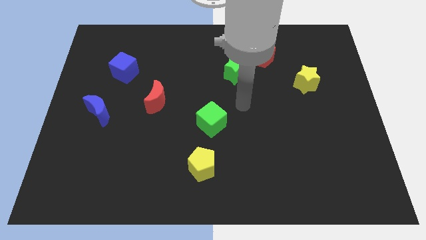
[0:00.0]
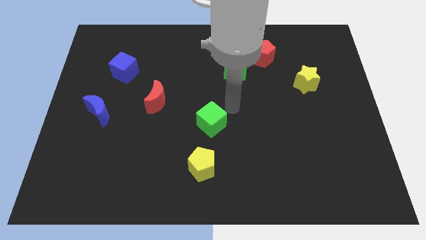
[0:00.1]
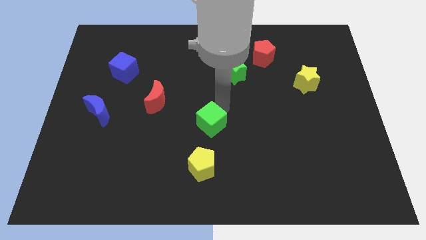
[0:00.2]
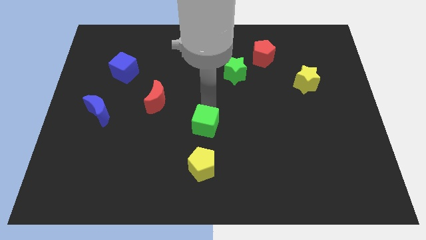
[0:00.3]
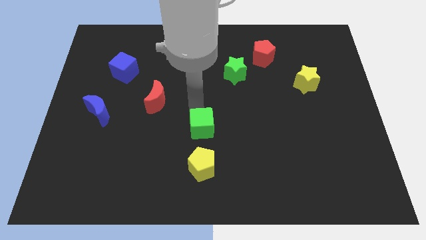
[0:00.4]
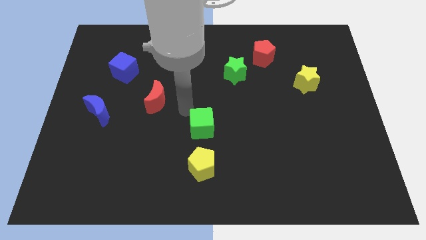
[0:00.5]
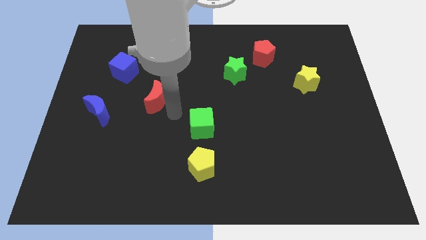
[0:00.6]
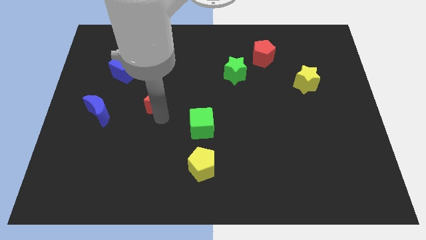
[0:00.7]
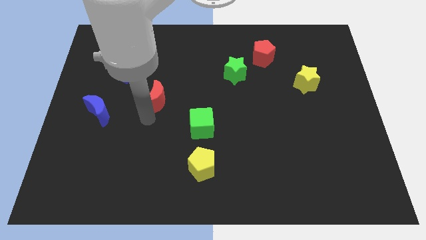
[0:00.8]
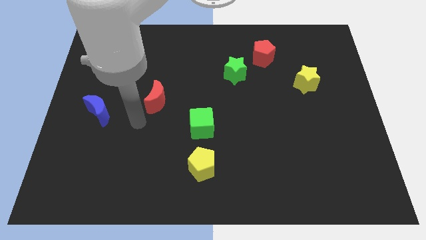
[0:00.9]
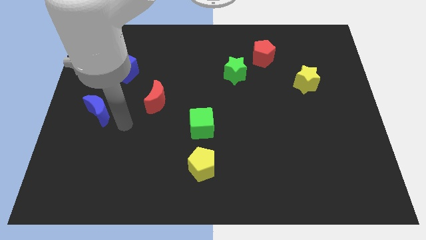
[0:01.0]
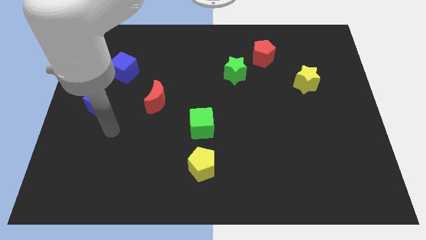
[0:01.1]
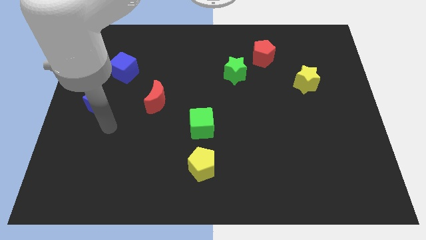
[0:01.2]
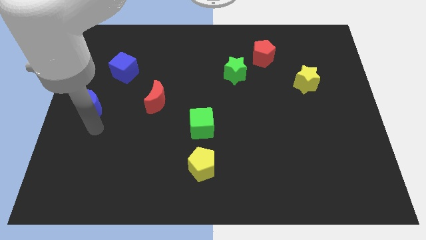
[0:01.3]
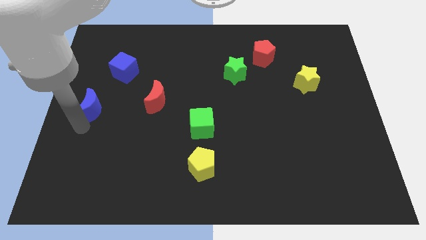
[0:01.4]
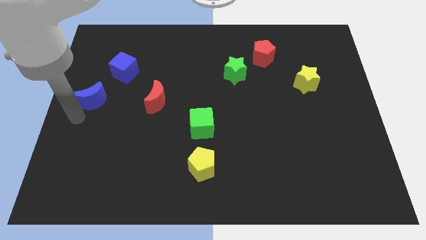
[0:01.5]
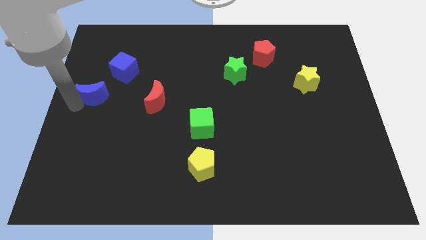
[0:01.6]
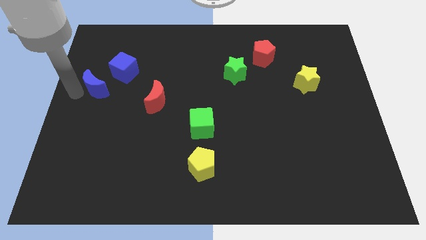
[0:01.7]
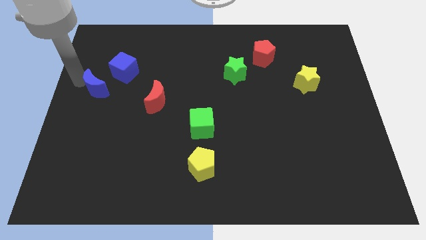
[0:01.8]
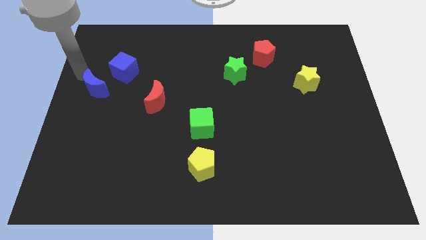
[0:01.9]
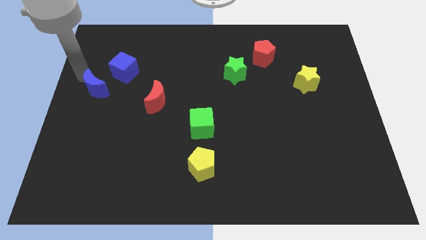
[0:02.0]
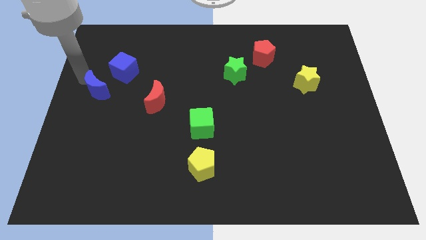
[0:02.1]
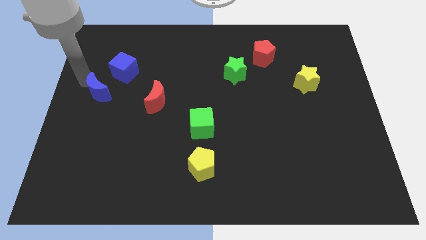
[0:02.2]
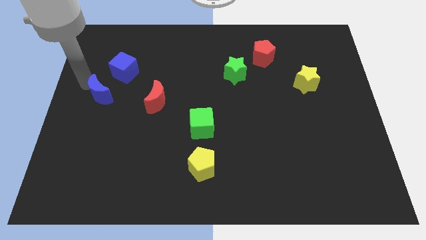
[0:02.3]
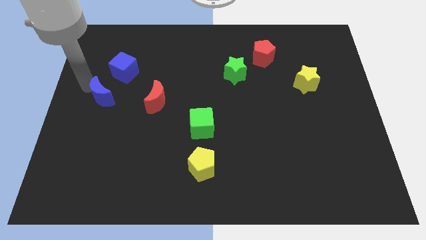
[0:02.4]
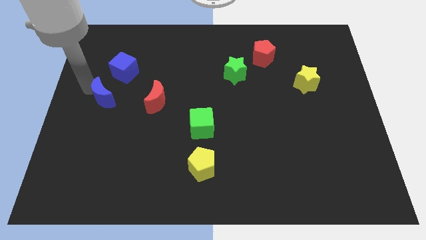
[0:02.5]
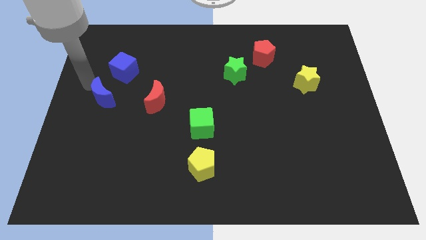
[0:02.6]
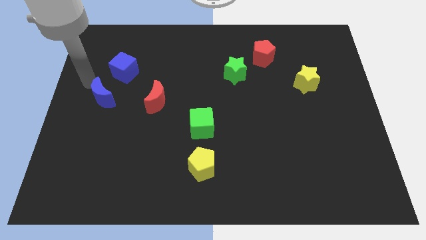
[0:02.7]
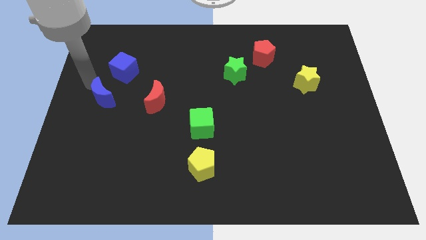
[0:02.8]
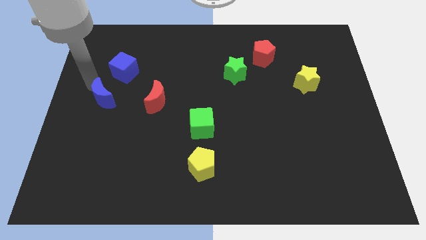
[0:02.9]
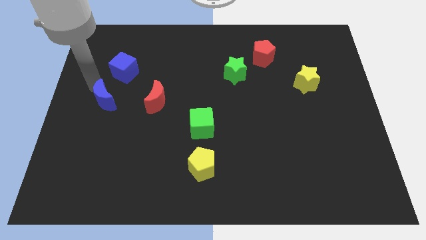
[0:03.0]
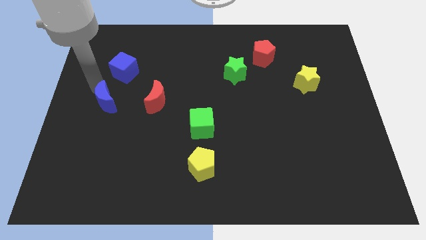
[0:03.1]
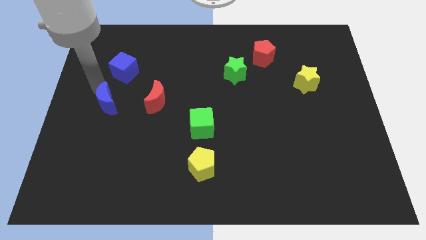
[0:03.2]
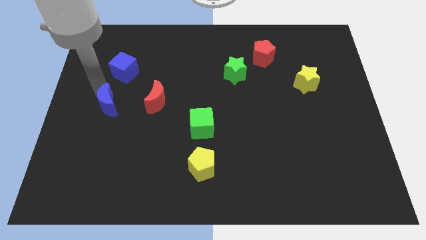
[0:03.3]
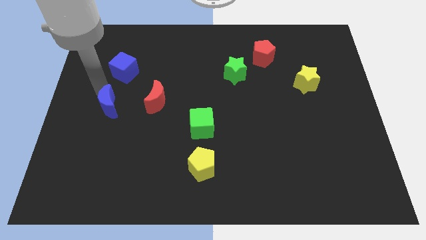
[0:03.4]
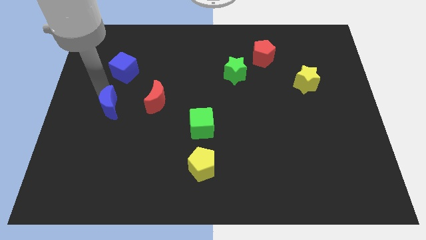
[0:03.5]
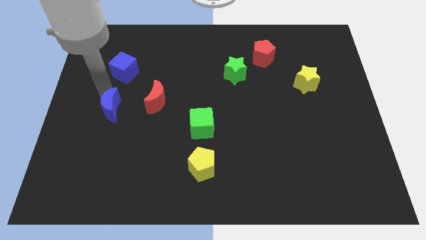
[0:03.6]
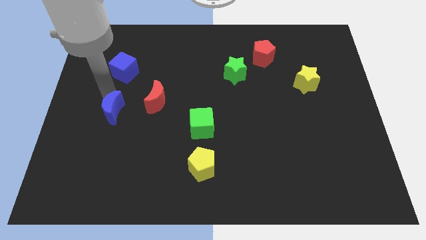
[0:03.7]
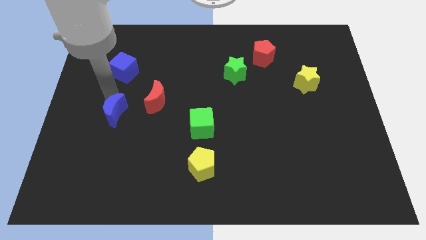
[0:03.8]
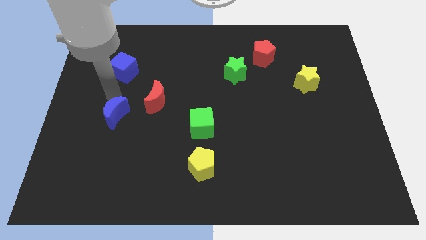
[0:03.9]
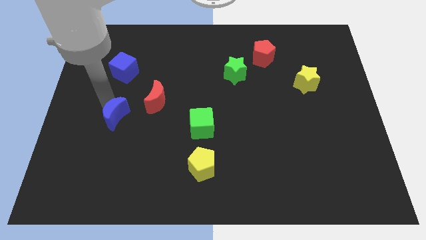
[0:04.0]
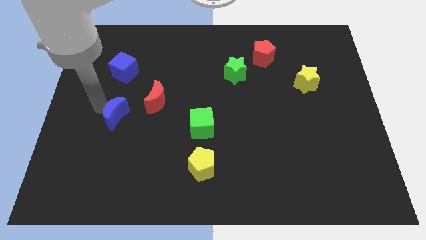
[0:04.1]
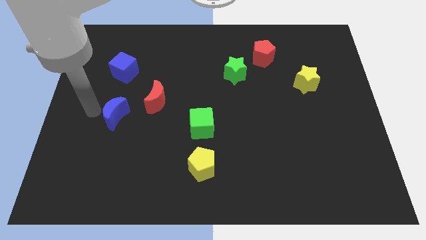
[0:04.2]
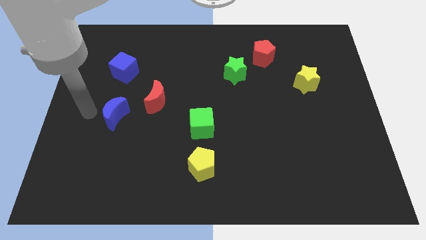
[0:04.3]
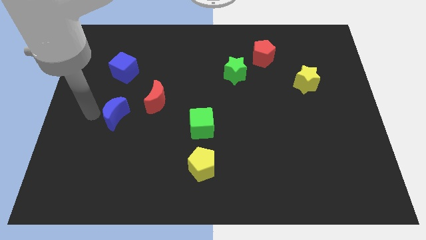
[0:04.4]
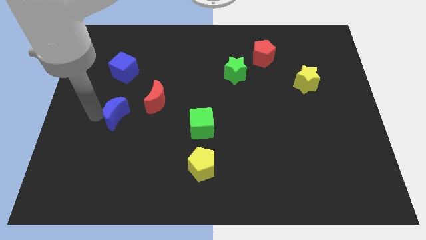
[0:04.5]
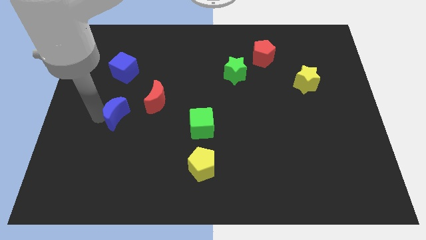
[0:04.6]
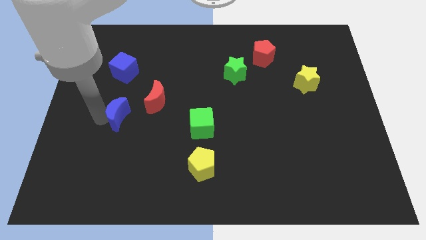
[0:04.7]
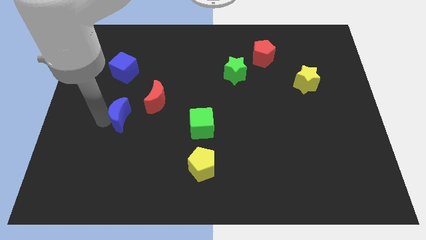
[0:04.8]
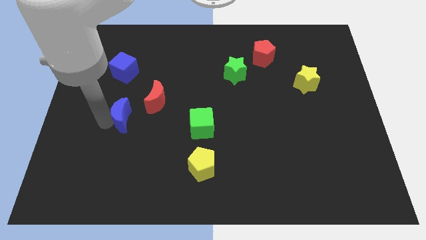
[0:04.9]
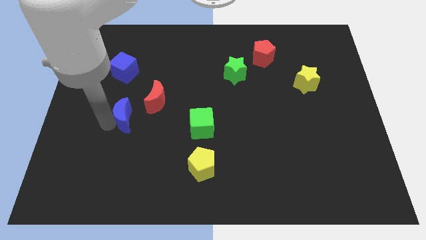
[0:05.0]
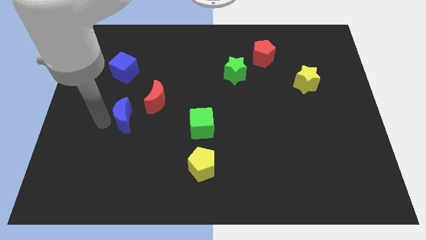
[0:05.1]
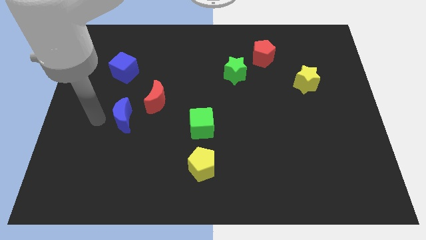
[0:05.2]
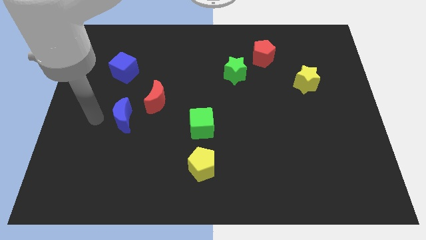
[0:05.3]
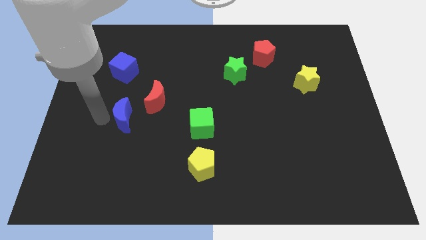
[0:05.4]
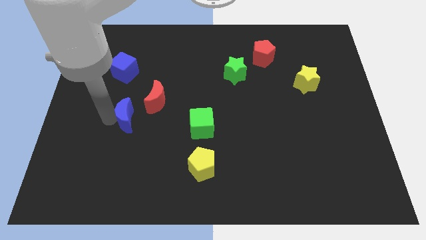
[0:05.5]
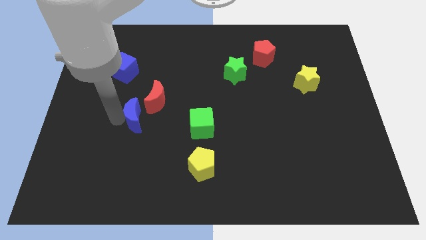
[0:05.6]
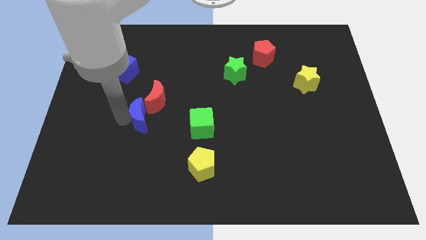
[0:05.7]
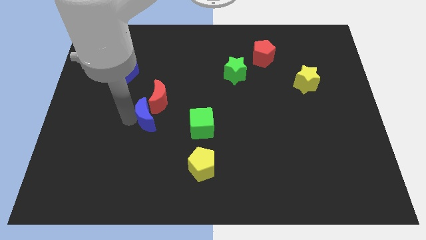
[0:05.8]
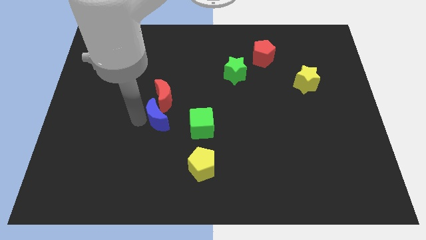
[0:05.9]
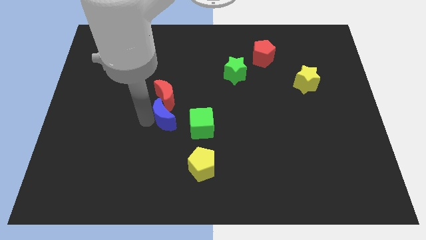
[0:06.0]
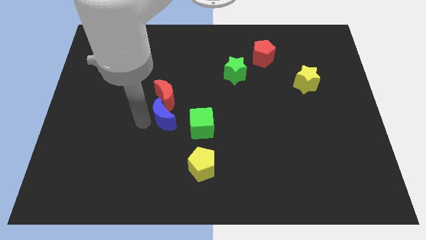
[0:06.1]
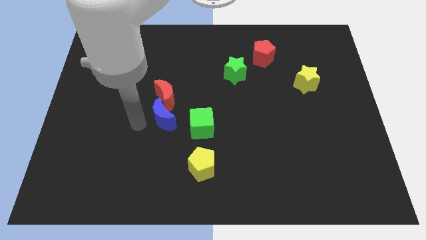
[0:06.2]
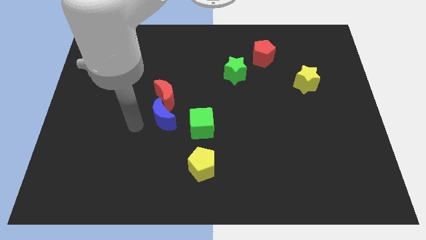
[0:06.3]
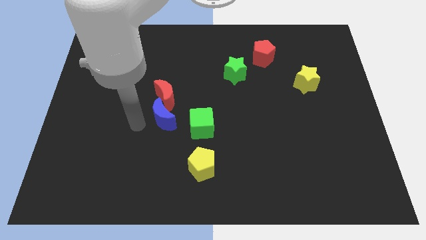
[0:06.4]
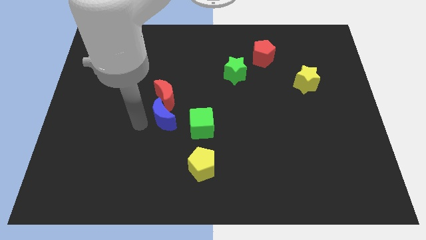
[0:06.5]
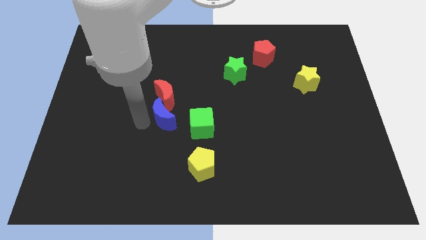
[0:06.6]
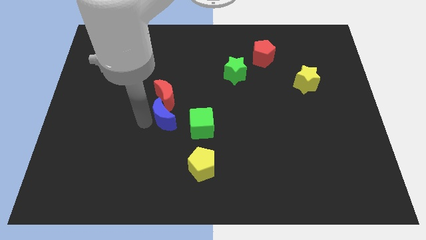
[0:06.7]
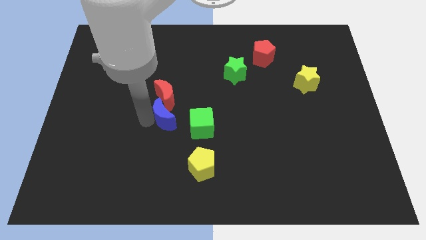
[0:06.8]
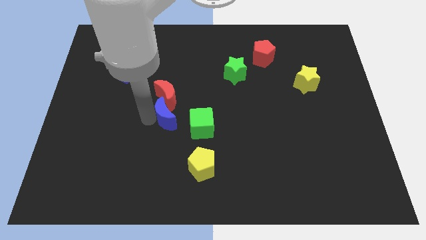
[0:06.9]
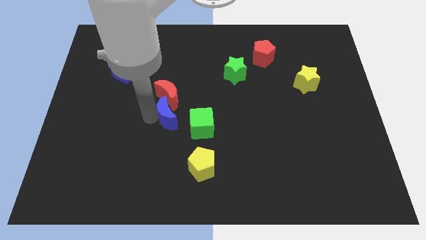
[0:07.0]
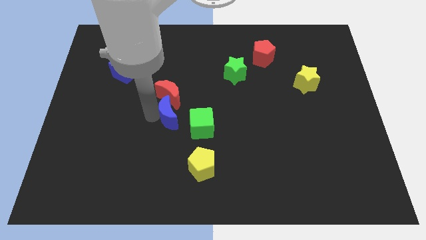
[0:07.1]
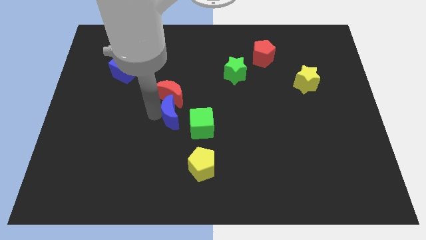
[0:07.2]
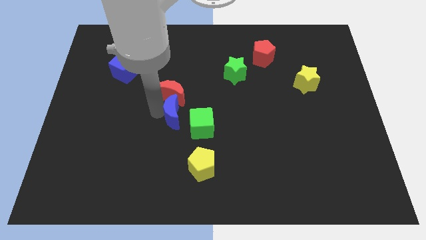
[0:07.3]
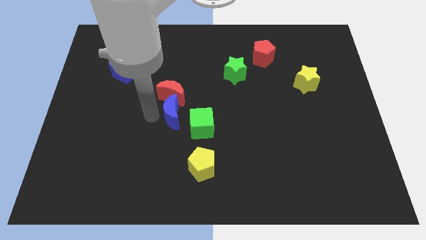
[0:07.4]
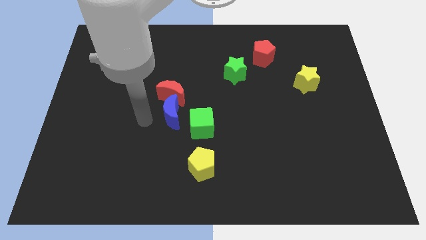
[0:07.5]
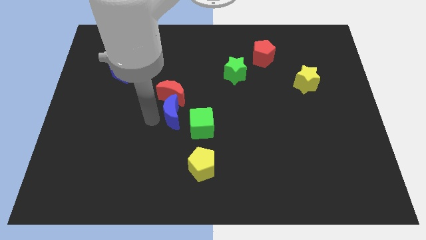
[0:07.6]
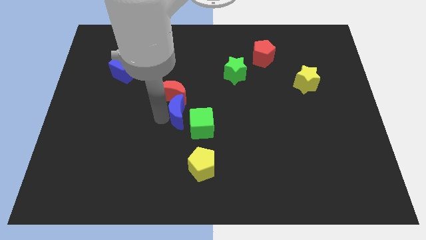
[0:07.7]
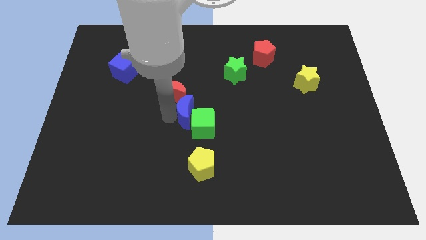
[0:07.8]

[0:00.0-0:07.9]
slide the blue moon right
